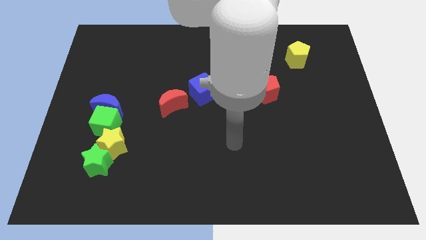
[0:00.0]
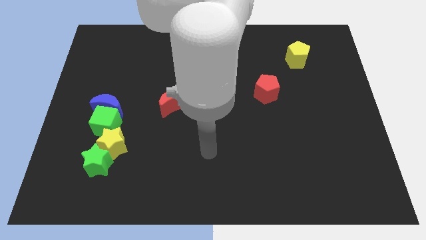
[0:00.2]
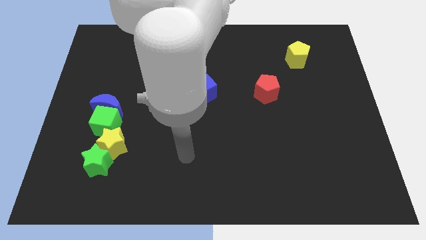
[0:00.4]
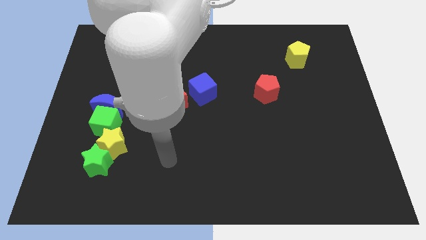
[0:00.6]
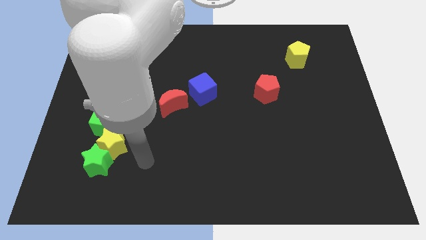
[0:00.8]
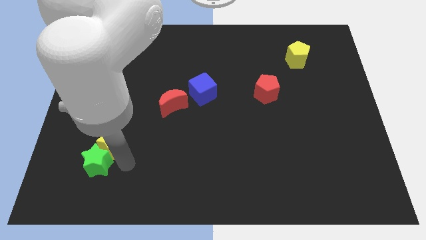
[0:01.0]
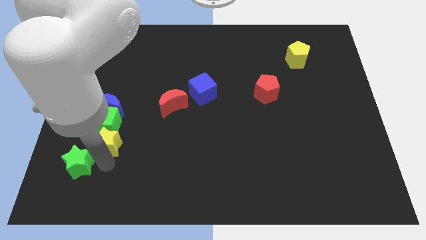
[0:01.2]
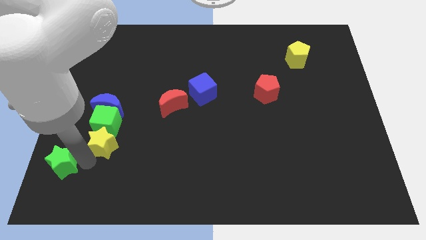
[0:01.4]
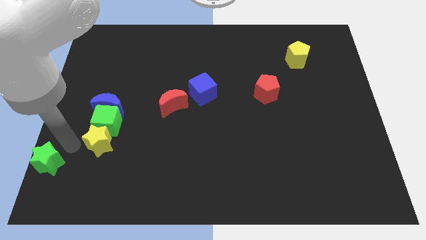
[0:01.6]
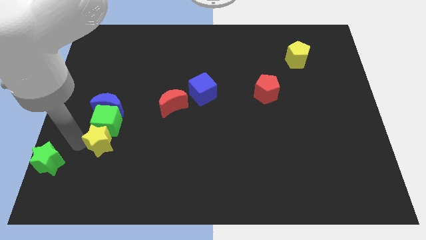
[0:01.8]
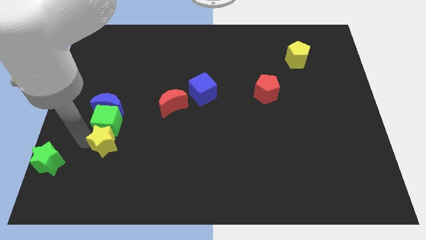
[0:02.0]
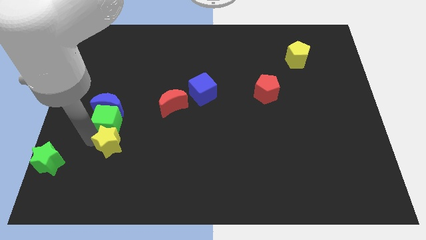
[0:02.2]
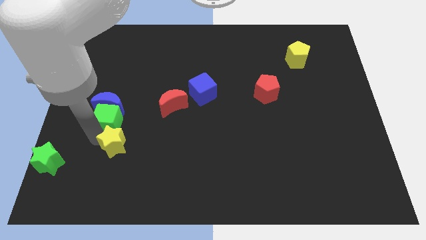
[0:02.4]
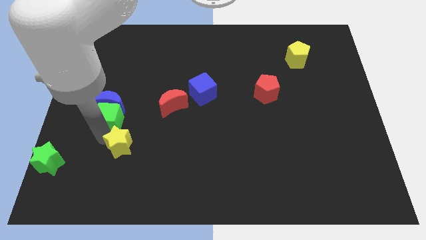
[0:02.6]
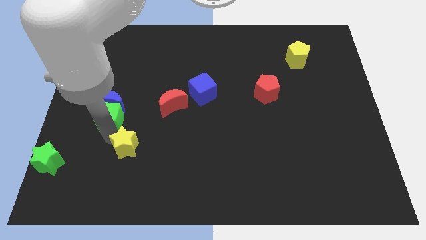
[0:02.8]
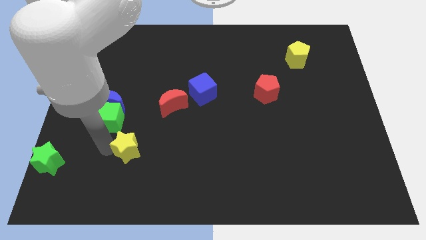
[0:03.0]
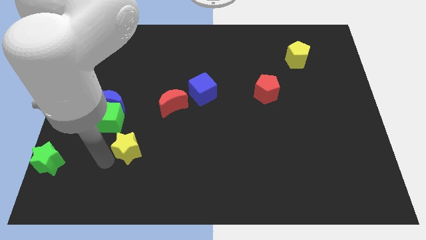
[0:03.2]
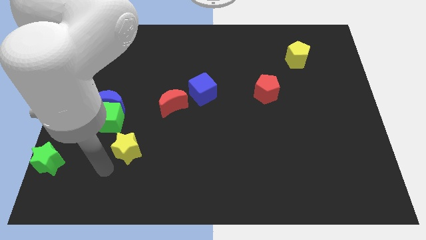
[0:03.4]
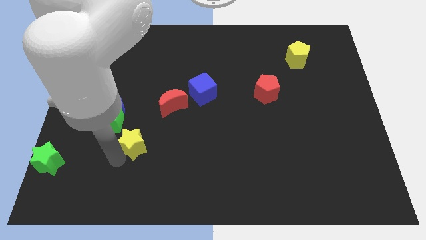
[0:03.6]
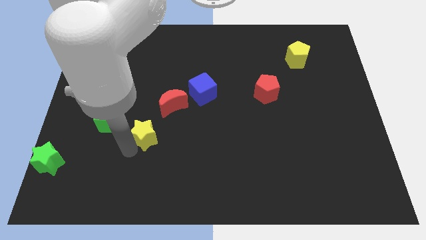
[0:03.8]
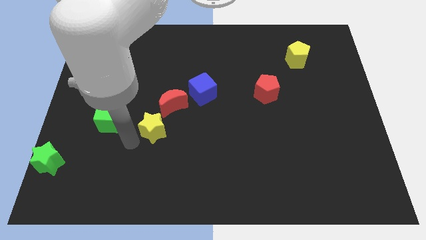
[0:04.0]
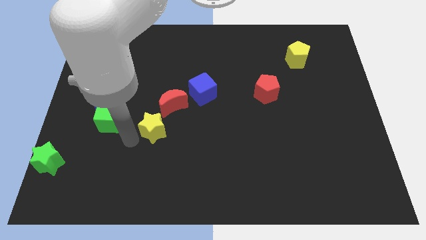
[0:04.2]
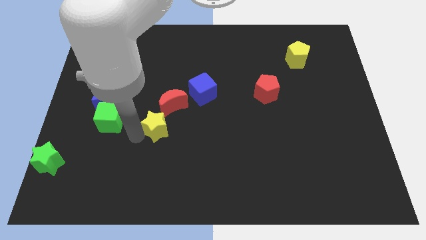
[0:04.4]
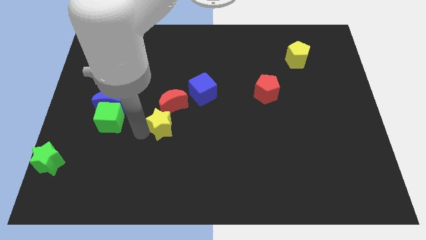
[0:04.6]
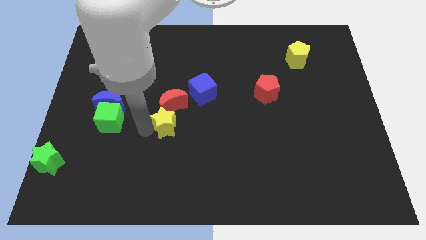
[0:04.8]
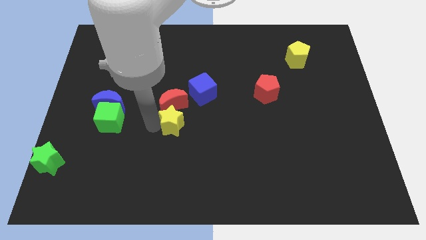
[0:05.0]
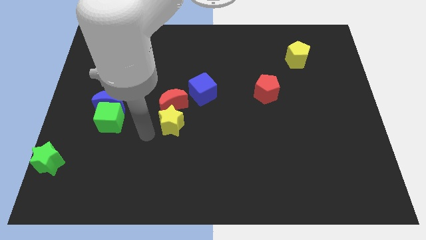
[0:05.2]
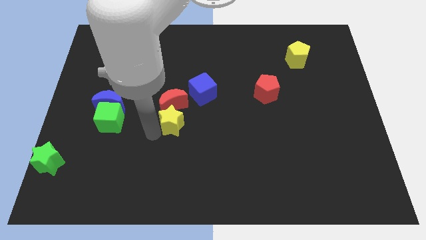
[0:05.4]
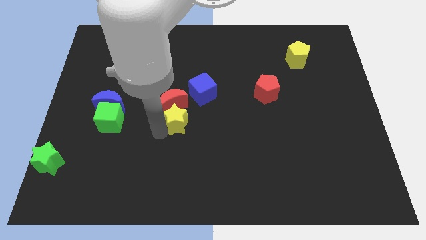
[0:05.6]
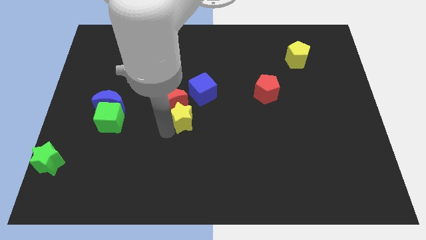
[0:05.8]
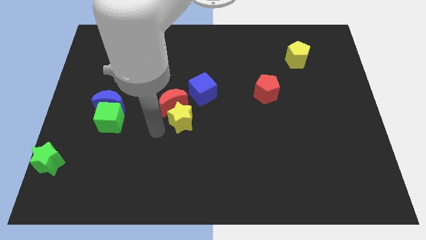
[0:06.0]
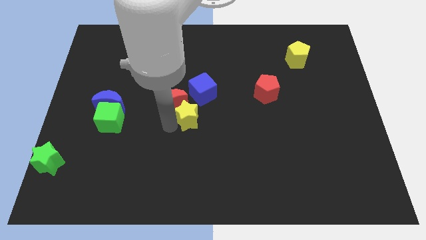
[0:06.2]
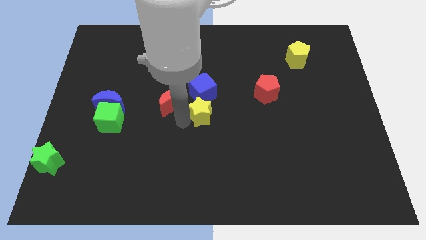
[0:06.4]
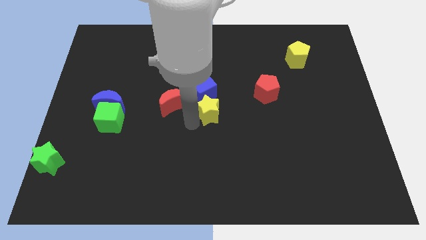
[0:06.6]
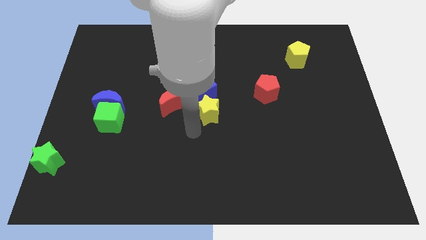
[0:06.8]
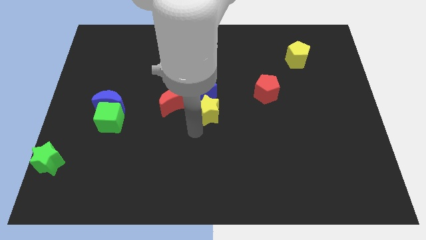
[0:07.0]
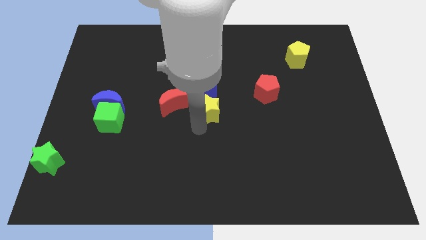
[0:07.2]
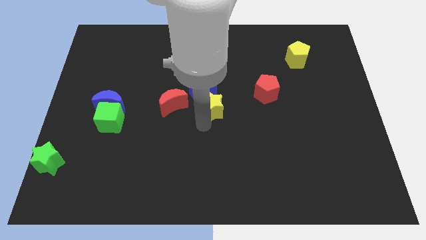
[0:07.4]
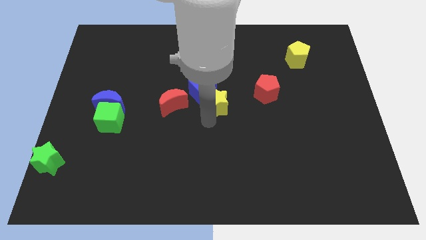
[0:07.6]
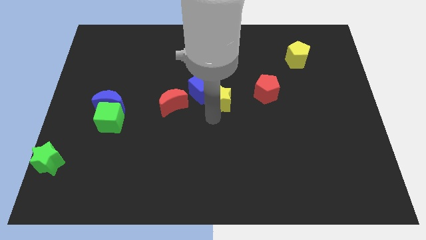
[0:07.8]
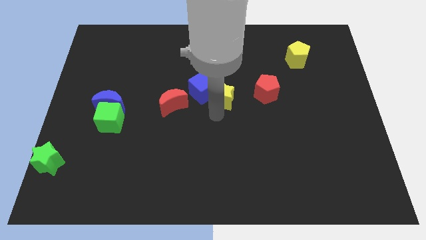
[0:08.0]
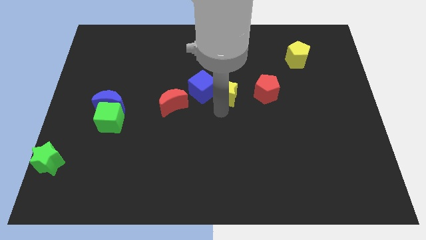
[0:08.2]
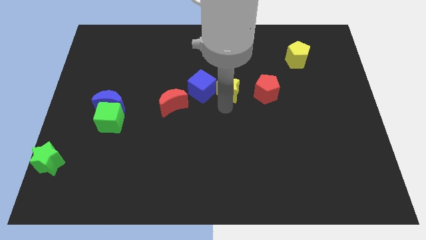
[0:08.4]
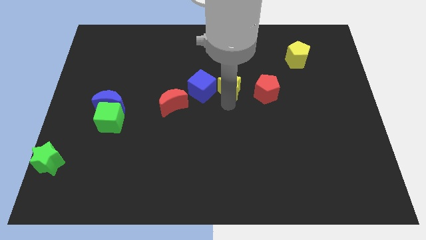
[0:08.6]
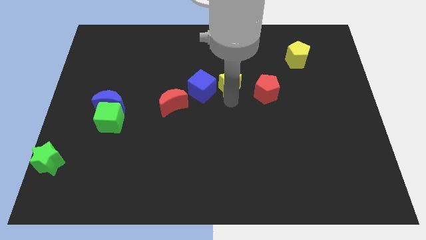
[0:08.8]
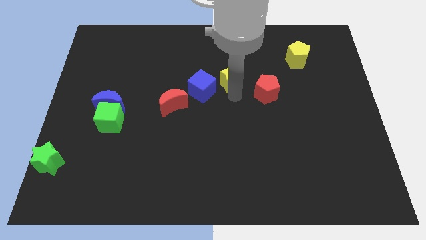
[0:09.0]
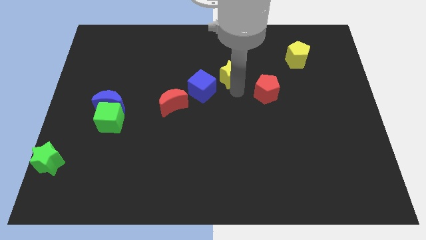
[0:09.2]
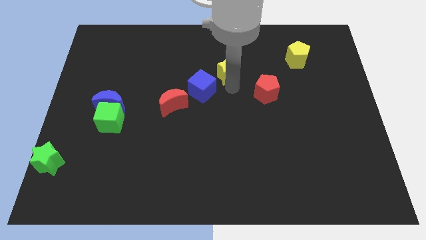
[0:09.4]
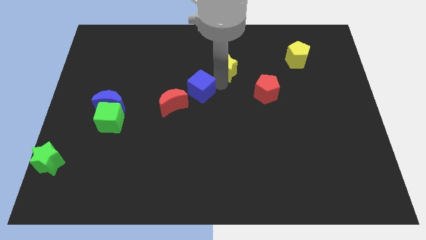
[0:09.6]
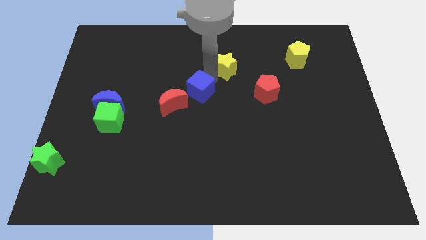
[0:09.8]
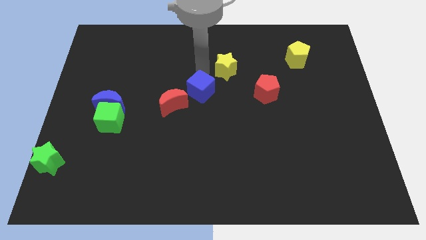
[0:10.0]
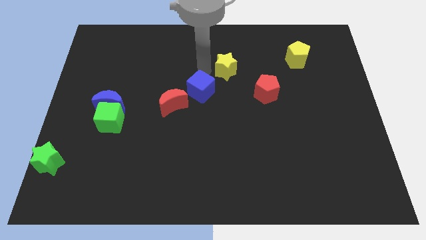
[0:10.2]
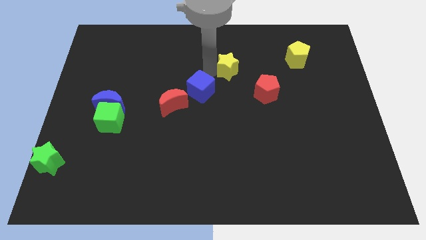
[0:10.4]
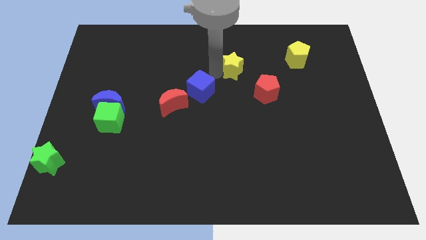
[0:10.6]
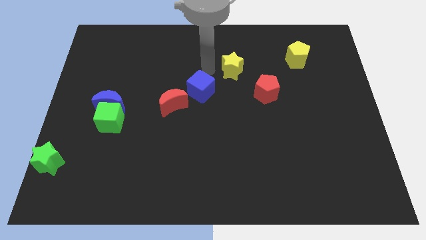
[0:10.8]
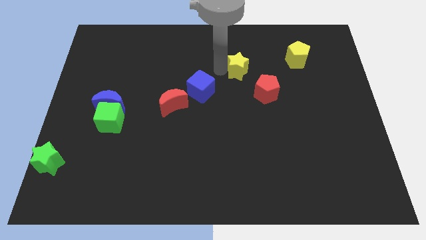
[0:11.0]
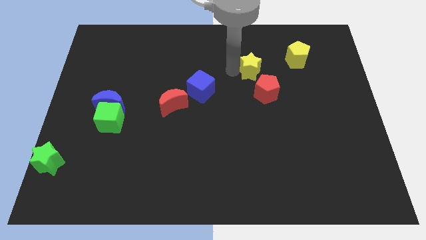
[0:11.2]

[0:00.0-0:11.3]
move the yellow star to the top side of the red pentagon

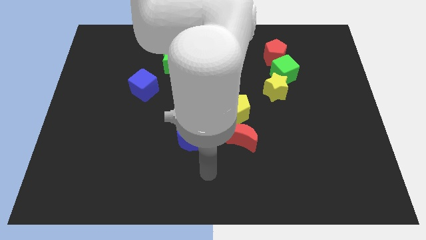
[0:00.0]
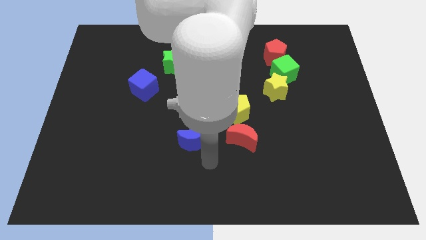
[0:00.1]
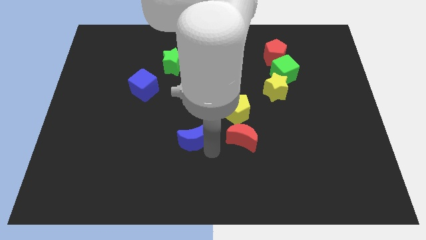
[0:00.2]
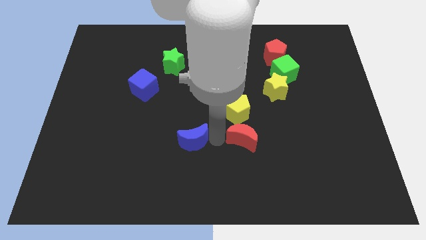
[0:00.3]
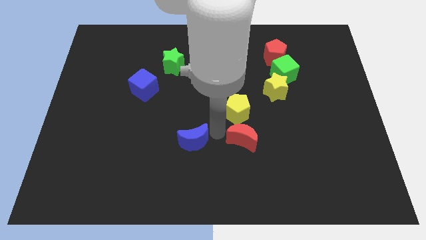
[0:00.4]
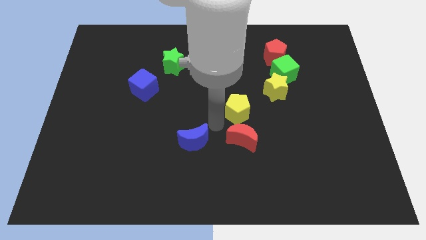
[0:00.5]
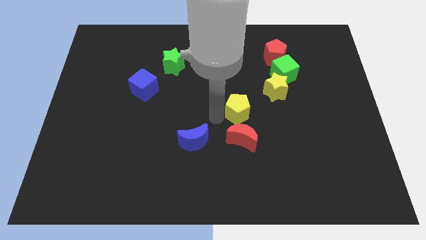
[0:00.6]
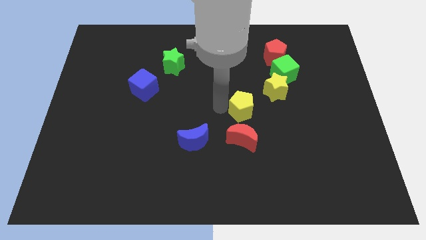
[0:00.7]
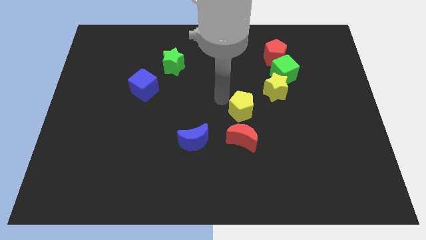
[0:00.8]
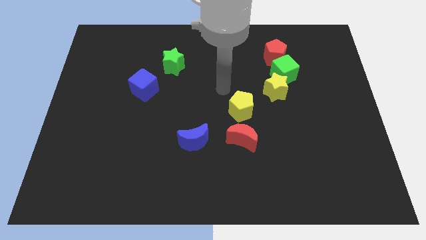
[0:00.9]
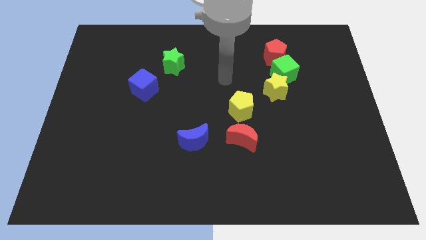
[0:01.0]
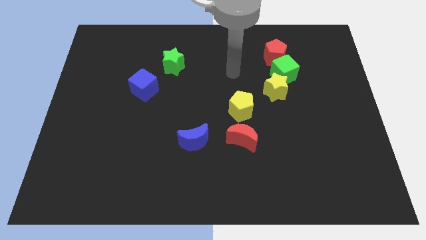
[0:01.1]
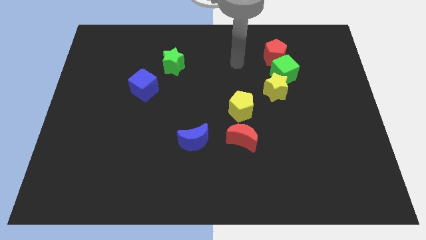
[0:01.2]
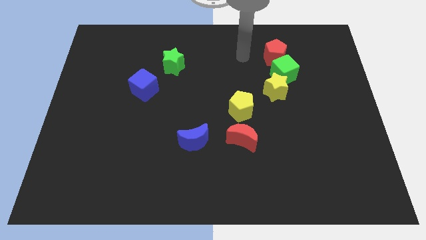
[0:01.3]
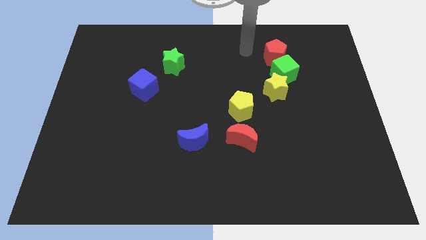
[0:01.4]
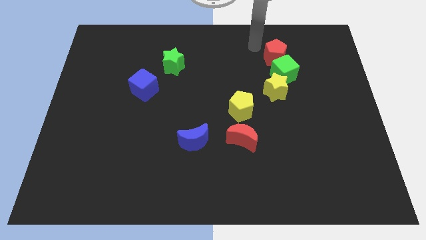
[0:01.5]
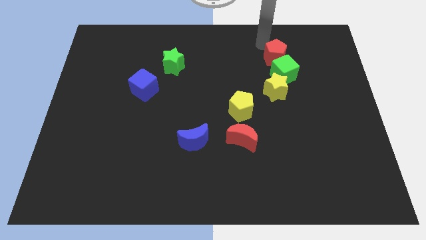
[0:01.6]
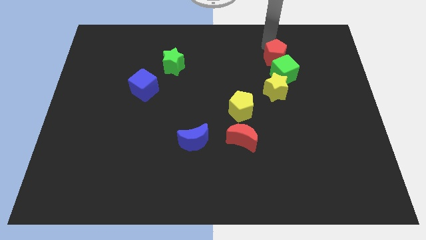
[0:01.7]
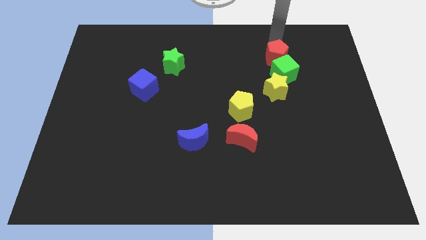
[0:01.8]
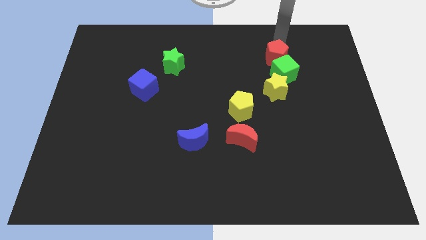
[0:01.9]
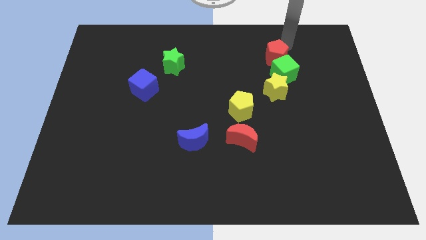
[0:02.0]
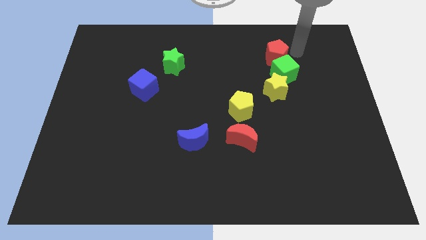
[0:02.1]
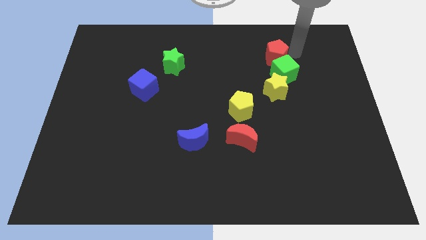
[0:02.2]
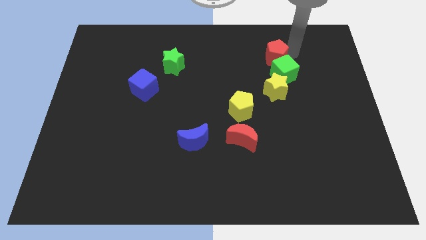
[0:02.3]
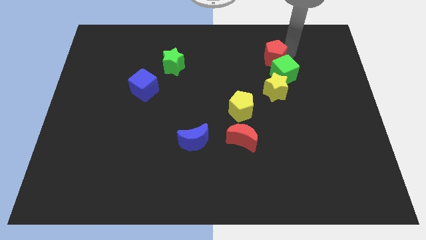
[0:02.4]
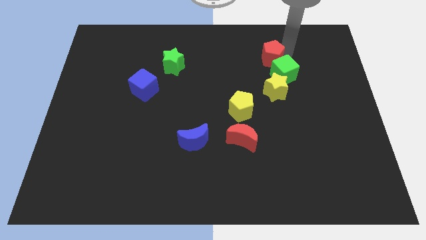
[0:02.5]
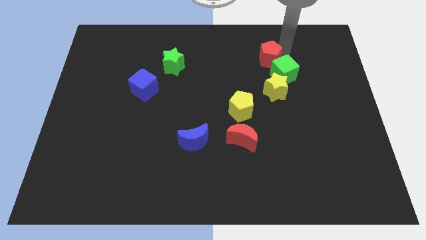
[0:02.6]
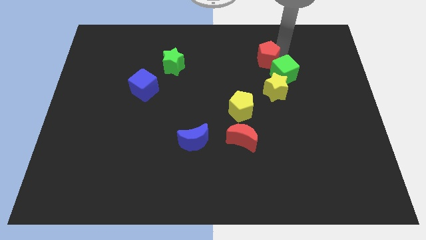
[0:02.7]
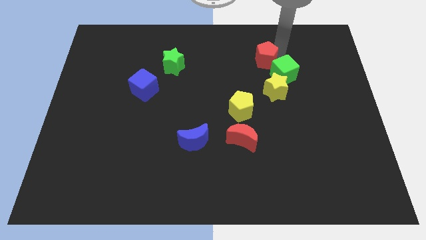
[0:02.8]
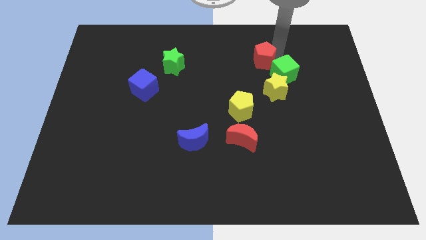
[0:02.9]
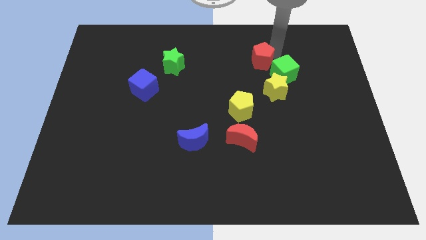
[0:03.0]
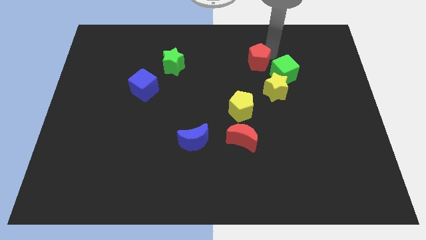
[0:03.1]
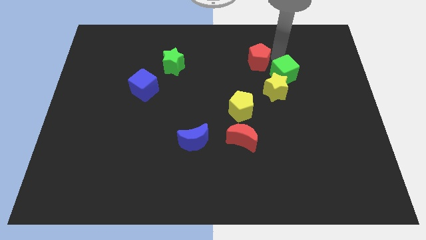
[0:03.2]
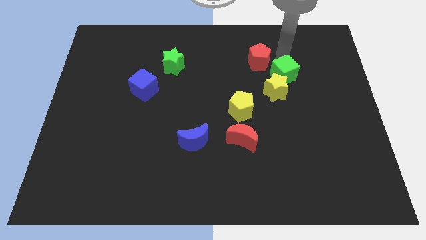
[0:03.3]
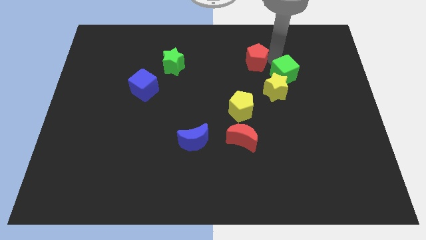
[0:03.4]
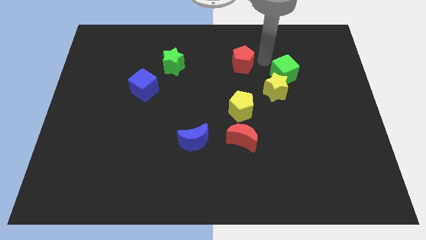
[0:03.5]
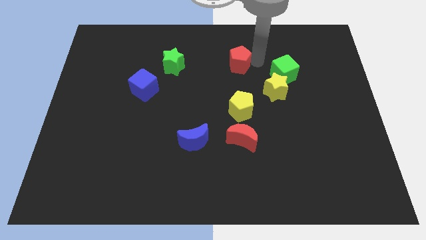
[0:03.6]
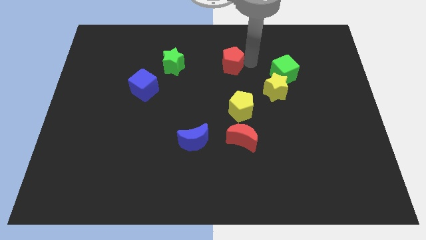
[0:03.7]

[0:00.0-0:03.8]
push the red pentagon to the right of the green star
